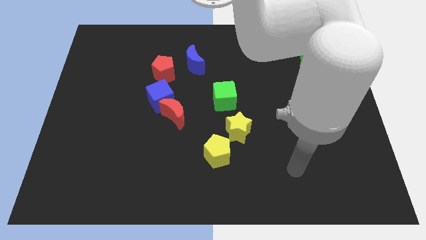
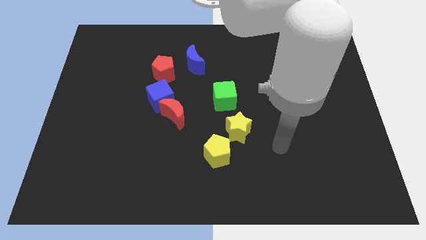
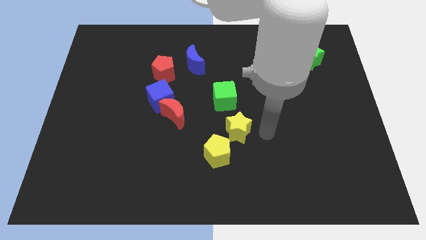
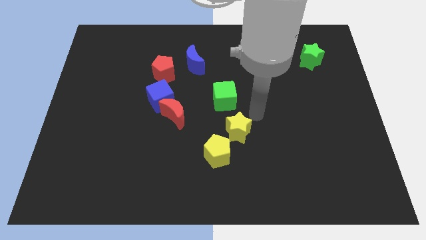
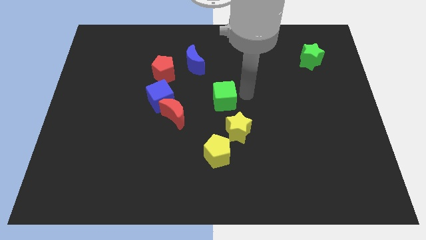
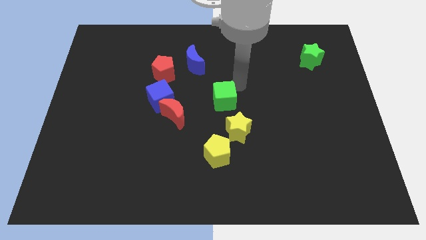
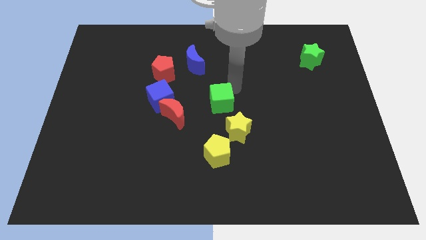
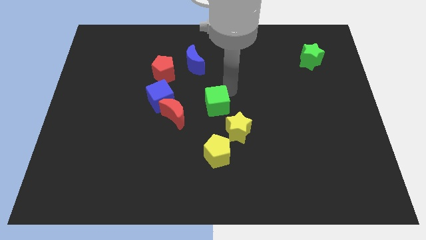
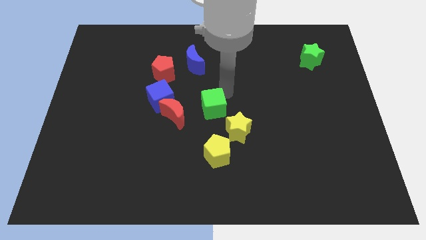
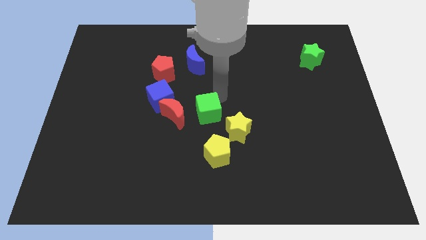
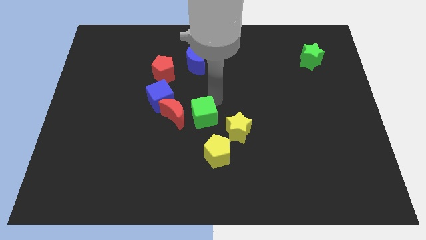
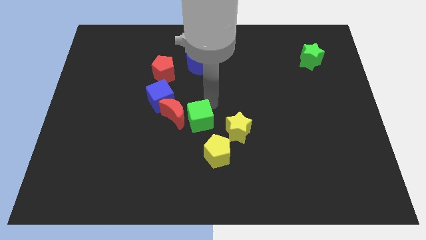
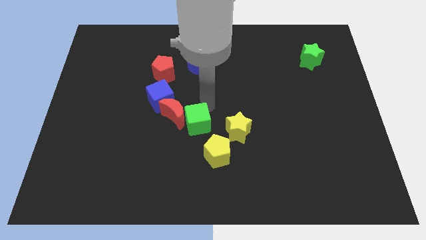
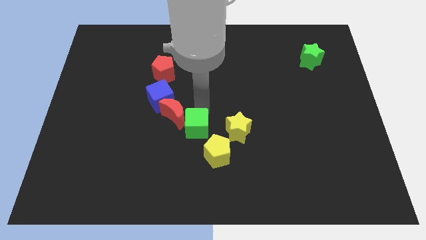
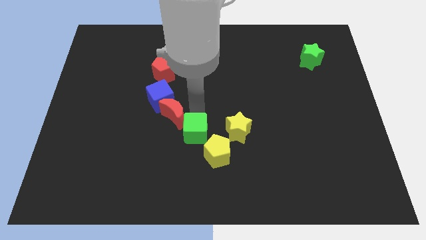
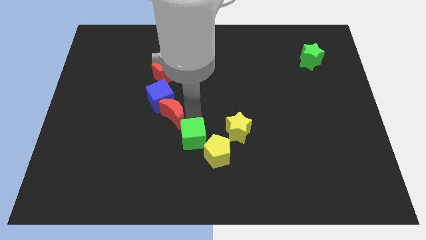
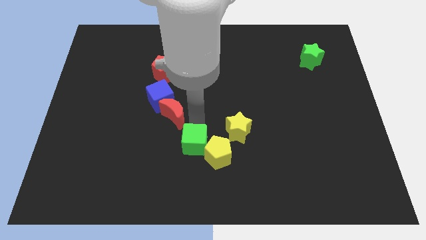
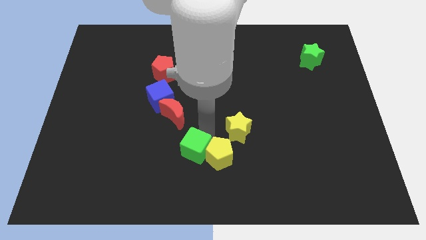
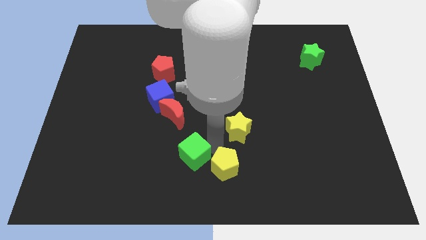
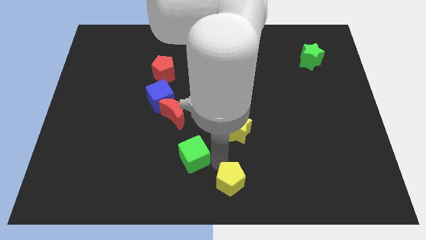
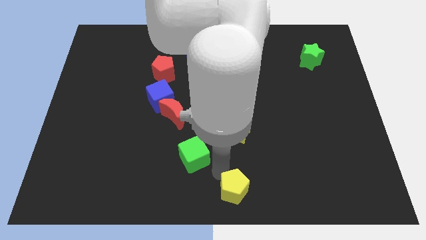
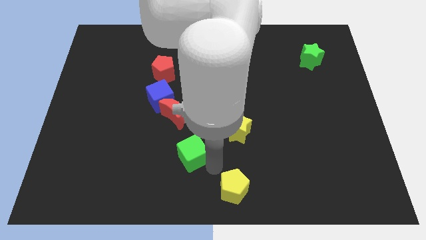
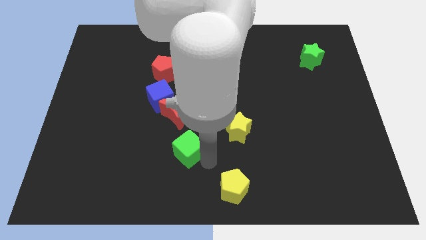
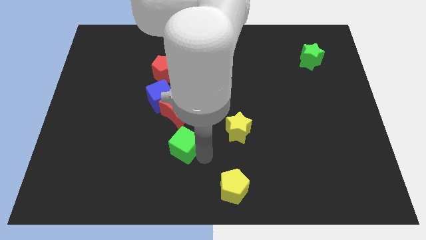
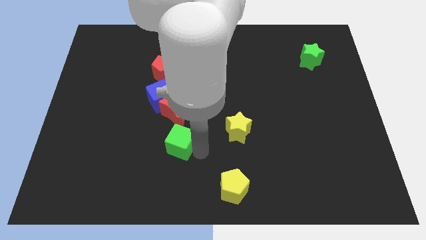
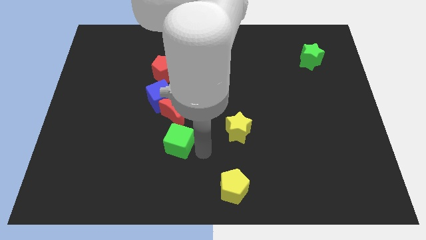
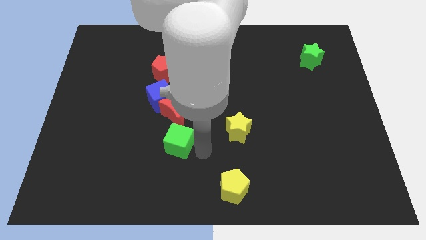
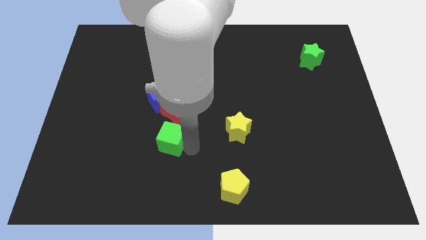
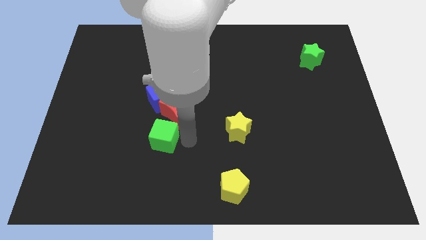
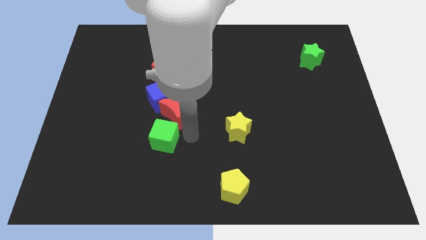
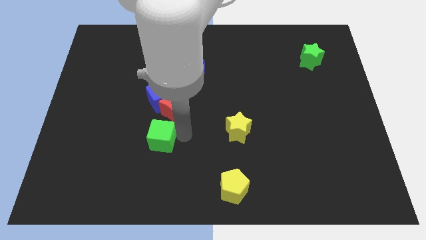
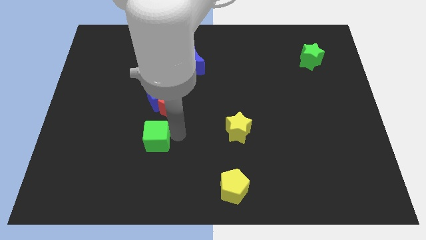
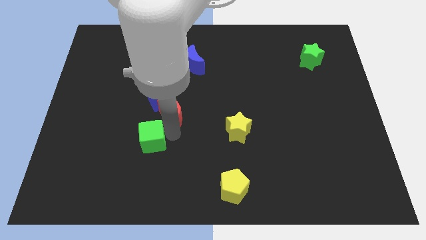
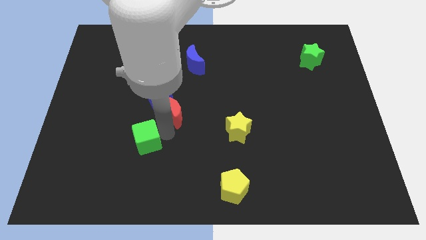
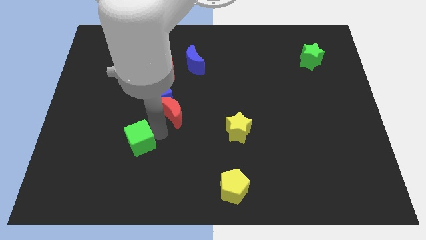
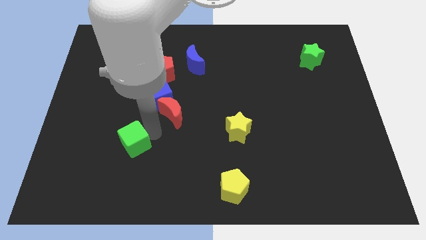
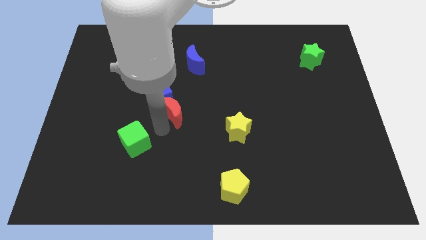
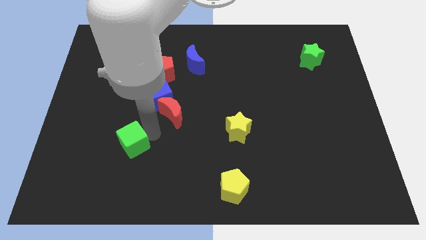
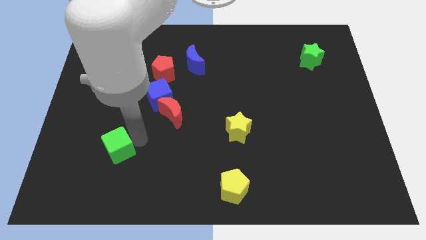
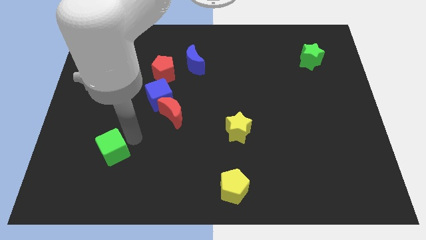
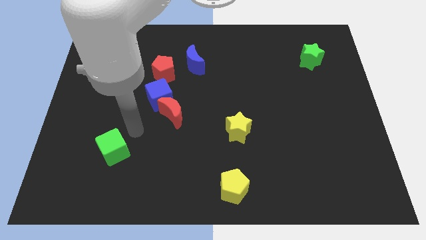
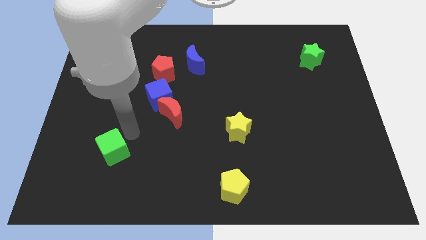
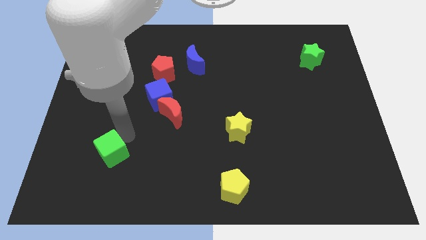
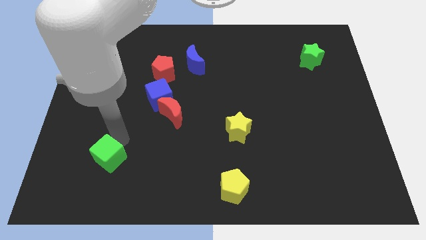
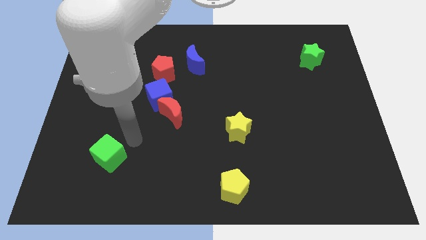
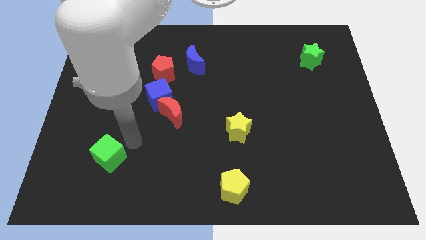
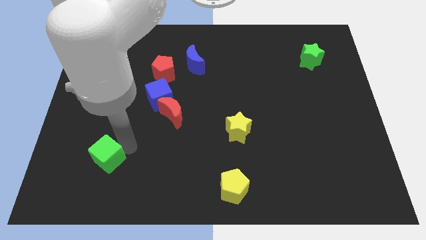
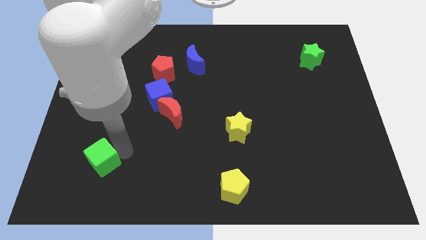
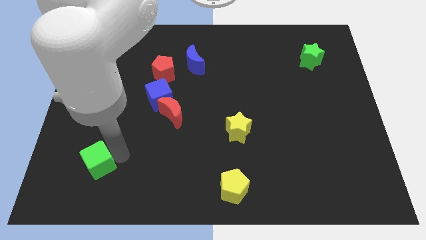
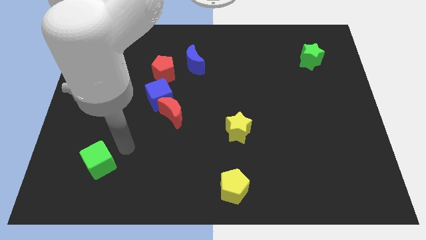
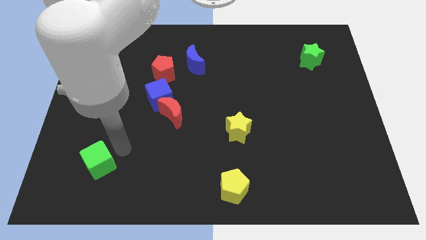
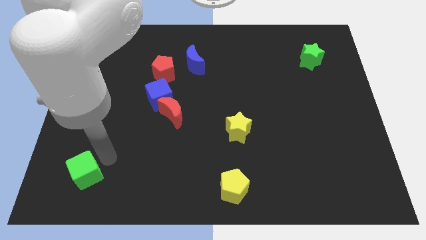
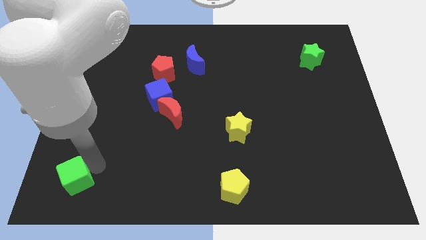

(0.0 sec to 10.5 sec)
slide the green cube to the bottom left of the board

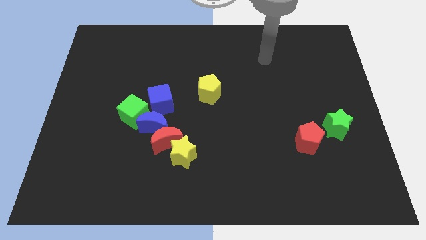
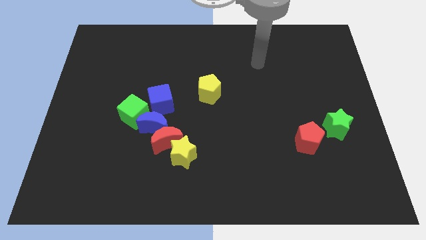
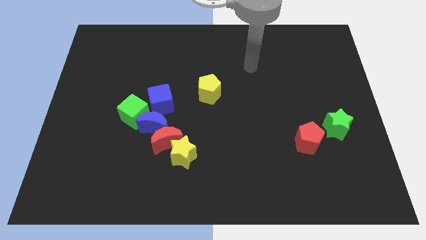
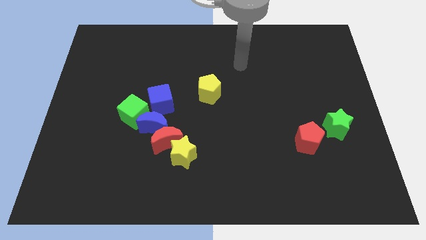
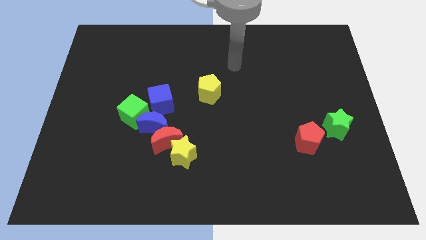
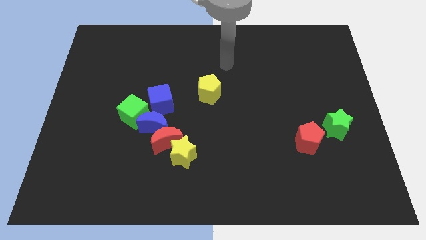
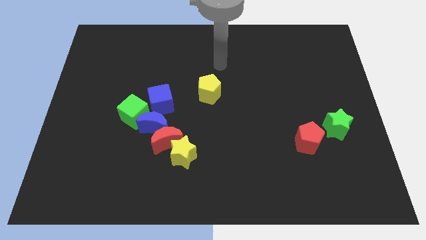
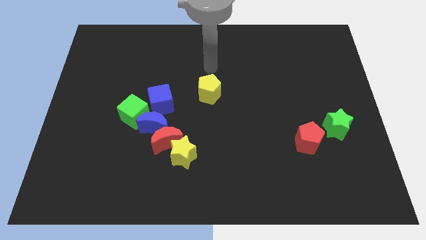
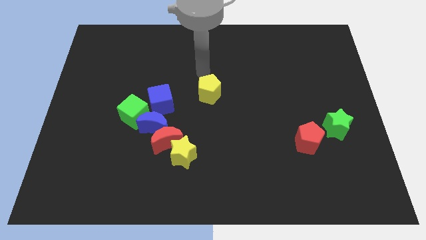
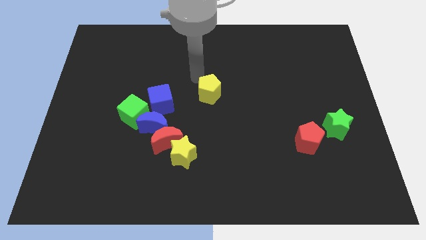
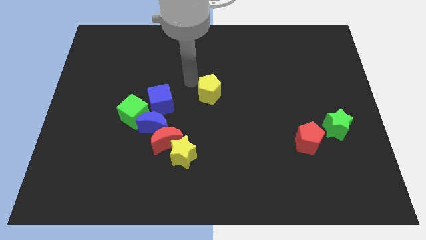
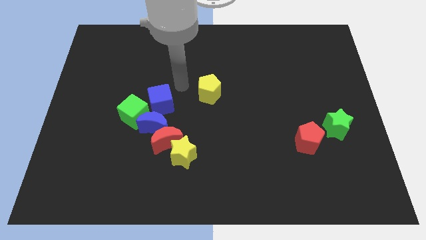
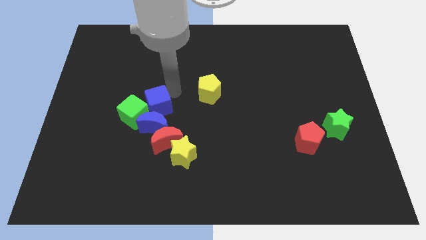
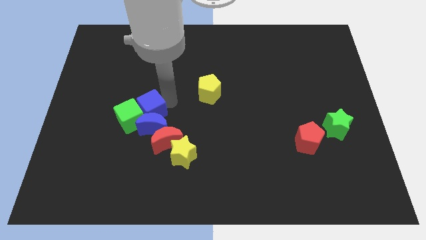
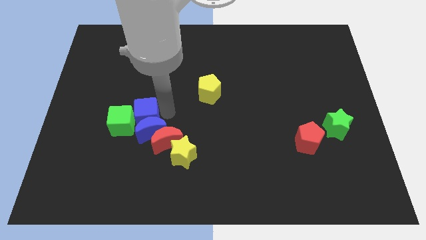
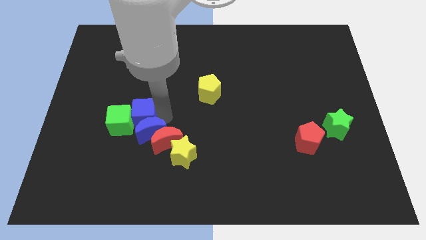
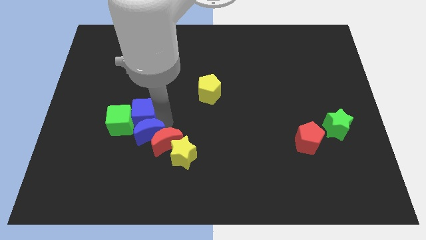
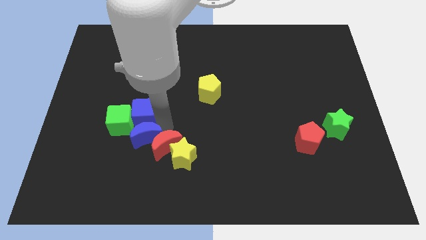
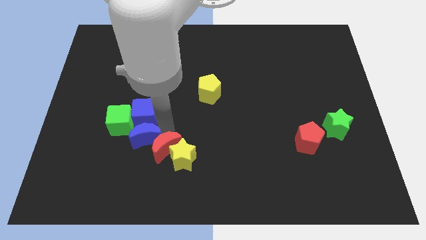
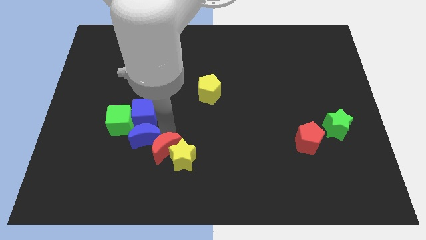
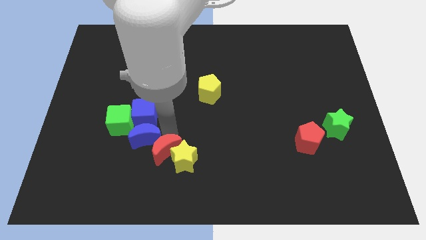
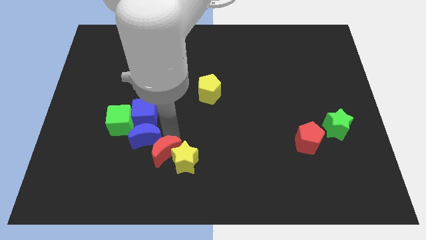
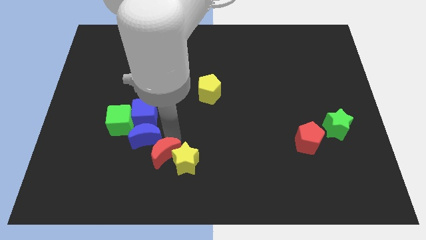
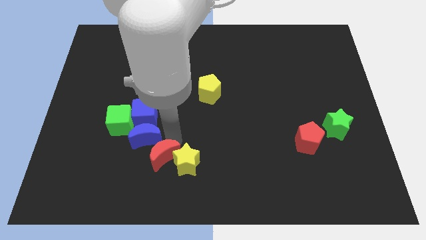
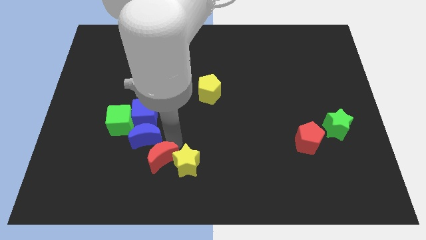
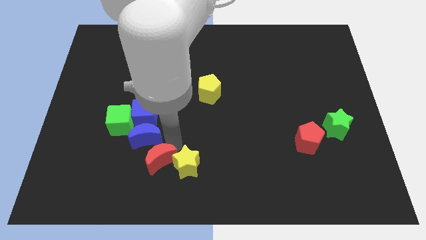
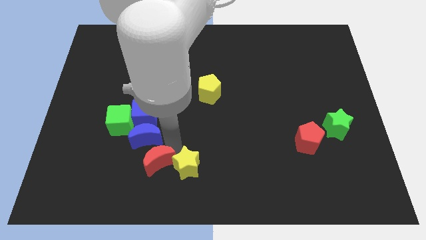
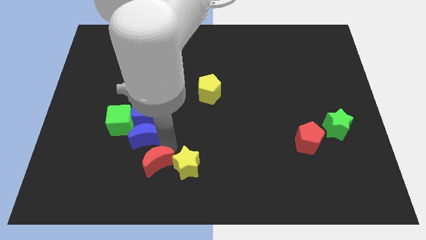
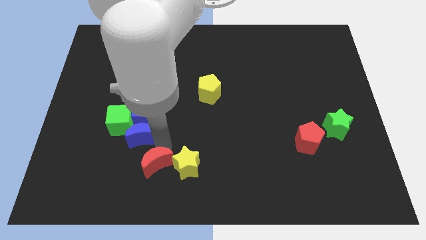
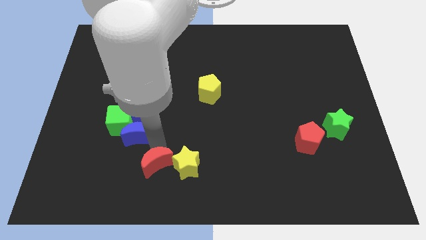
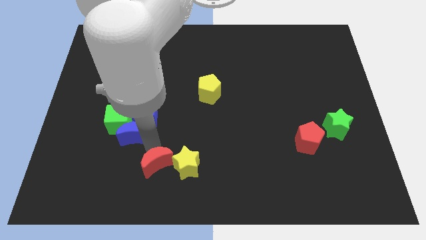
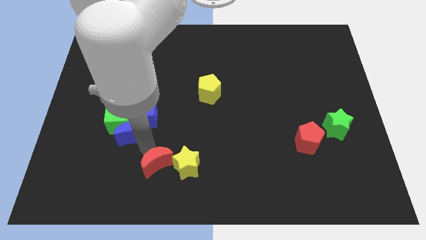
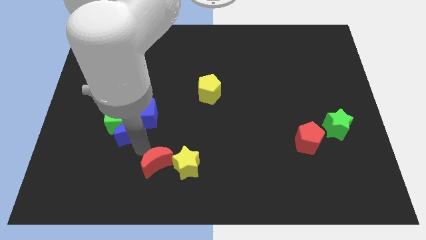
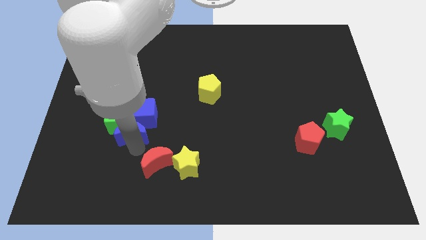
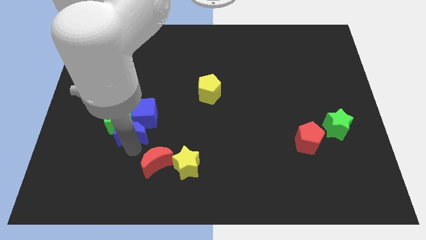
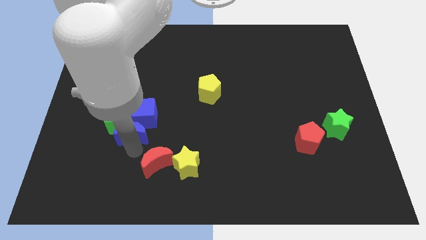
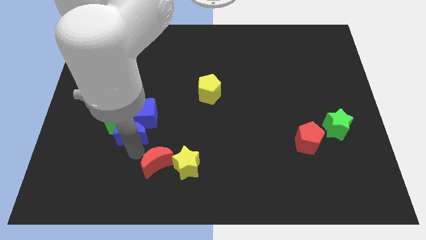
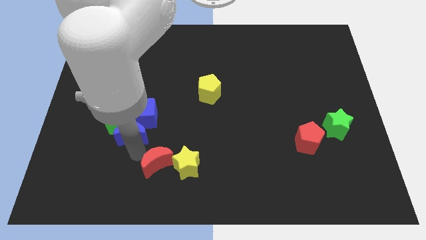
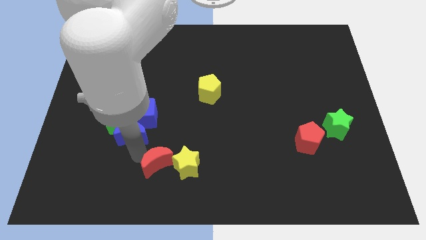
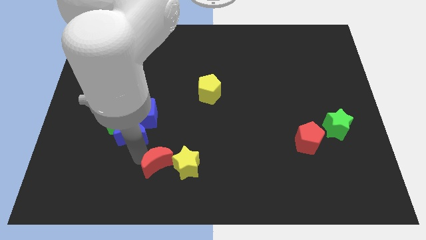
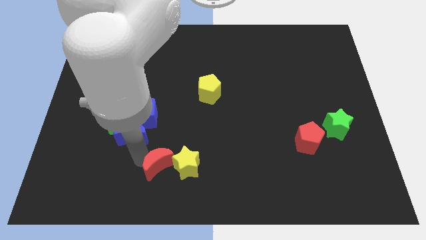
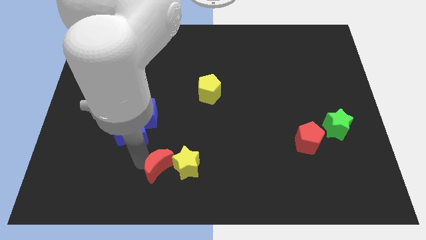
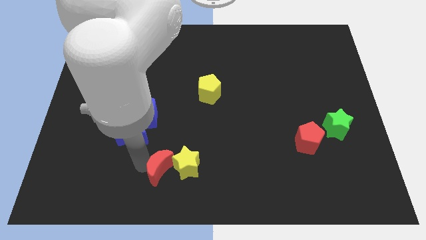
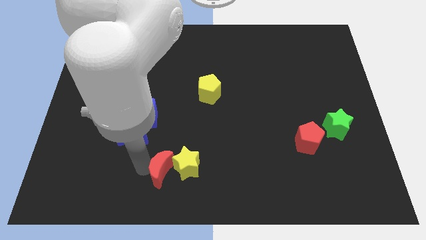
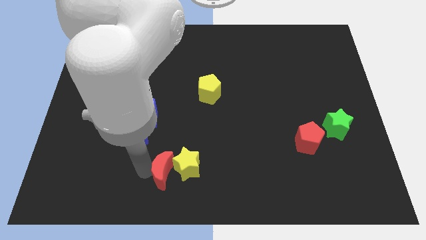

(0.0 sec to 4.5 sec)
push the red moon to the bottom side
